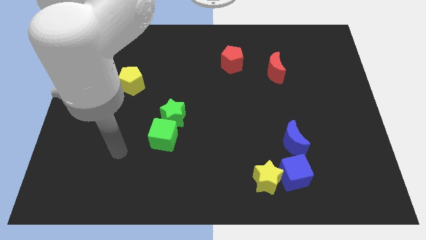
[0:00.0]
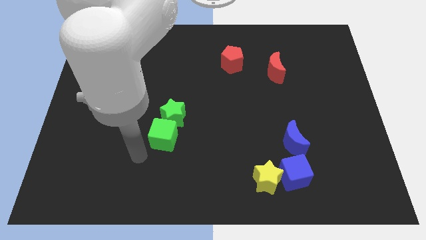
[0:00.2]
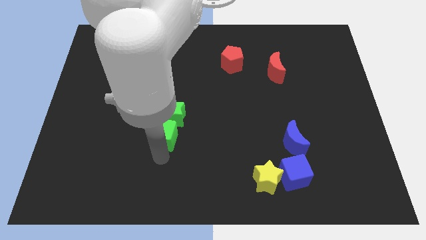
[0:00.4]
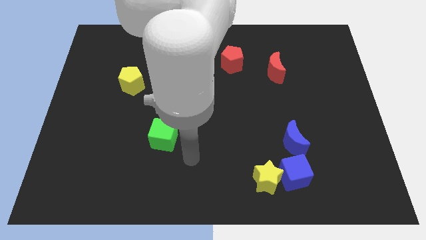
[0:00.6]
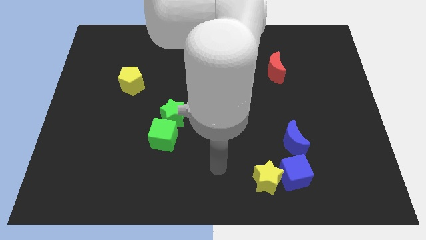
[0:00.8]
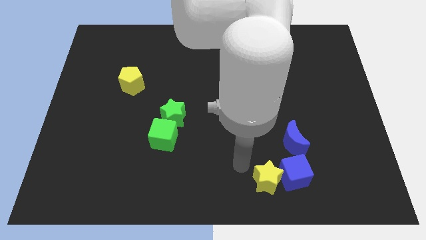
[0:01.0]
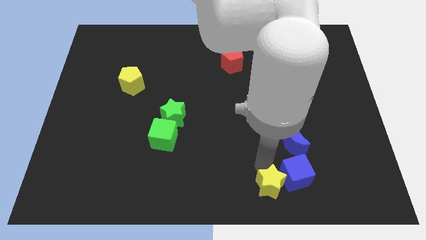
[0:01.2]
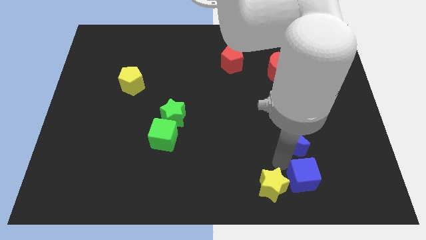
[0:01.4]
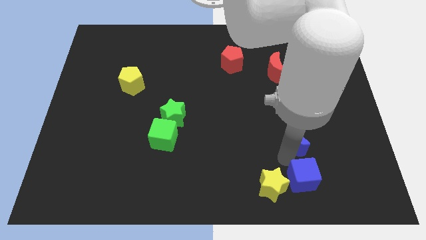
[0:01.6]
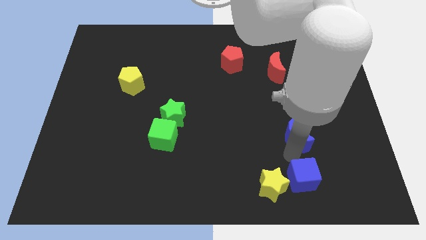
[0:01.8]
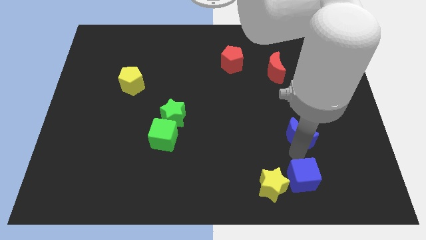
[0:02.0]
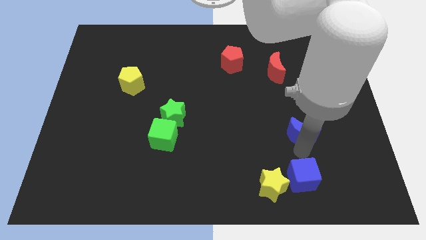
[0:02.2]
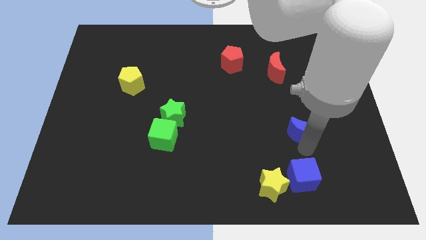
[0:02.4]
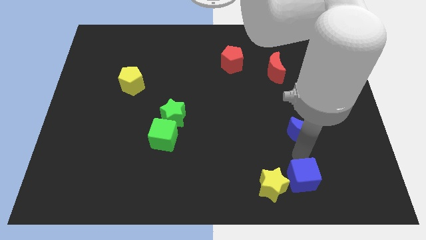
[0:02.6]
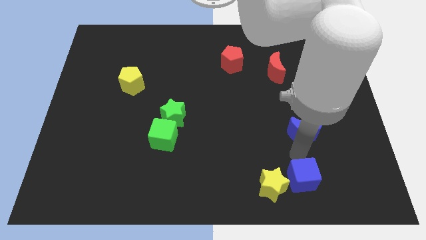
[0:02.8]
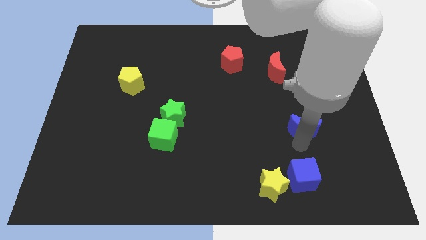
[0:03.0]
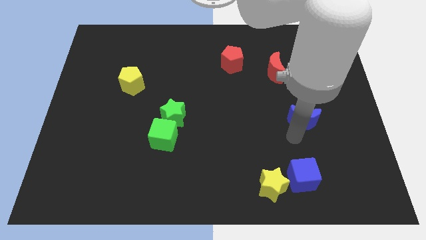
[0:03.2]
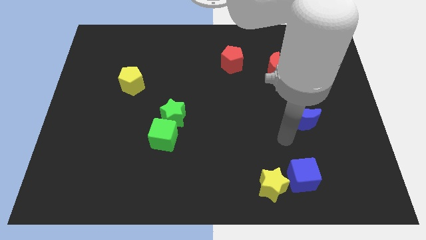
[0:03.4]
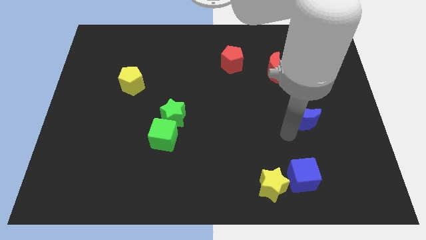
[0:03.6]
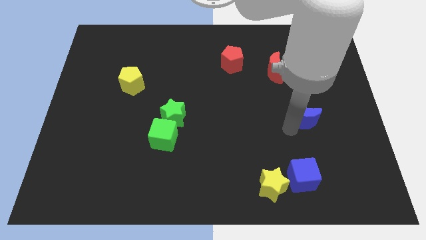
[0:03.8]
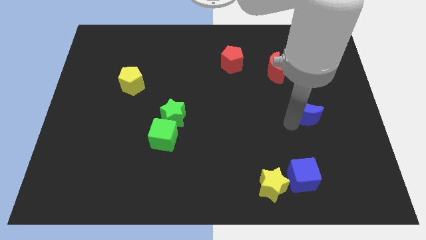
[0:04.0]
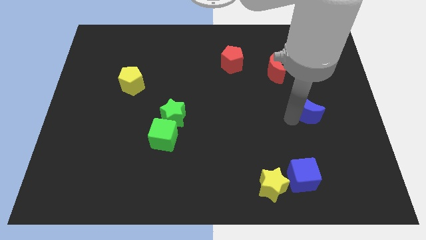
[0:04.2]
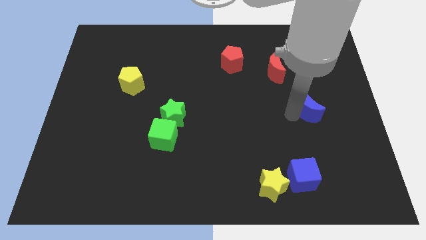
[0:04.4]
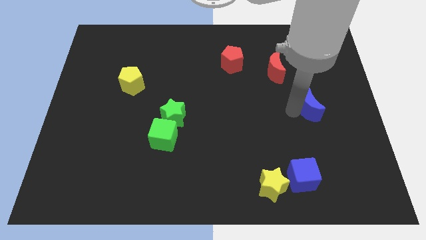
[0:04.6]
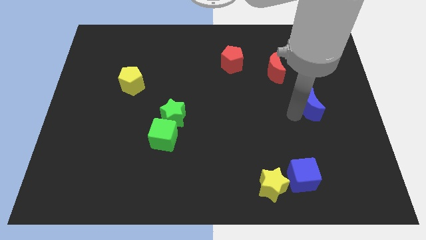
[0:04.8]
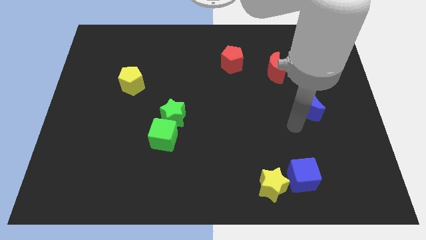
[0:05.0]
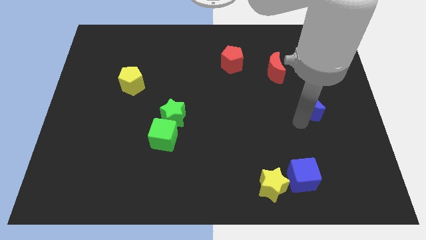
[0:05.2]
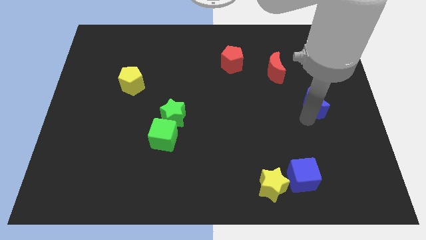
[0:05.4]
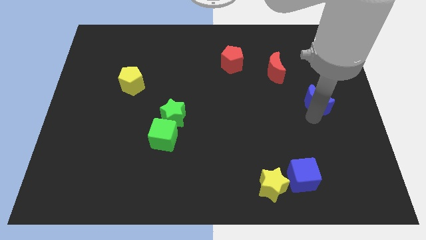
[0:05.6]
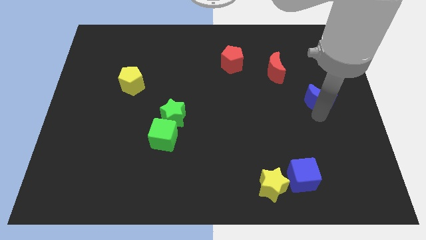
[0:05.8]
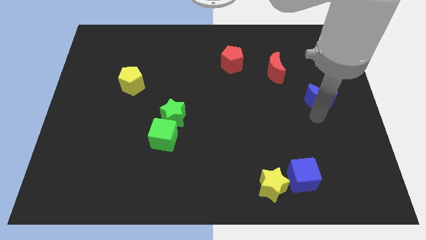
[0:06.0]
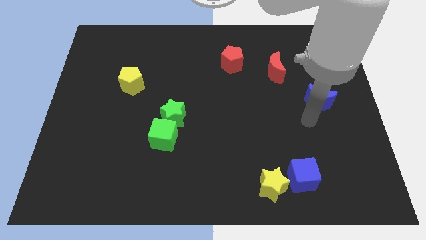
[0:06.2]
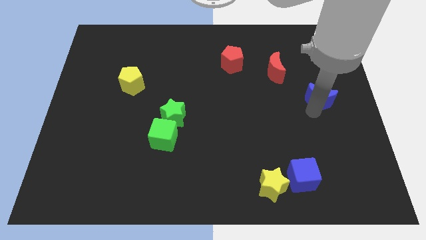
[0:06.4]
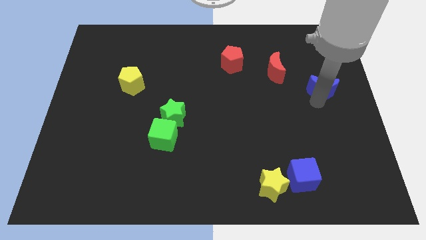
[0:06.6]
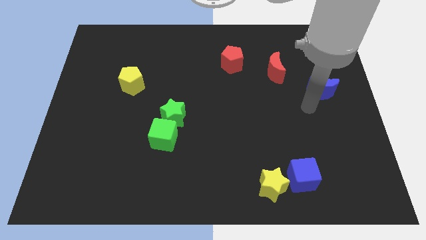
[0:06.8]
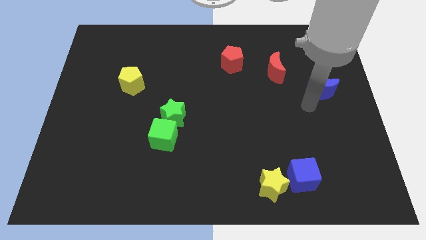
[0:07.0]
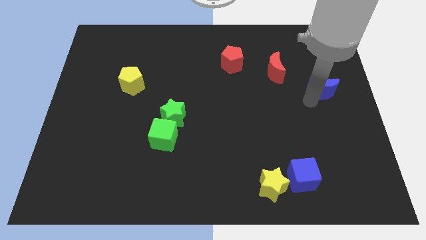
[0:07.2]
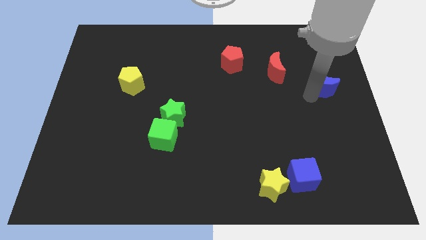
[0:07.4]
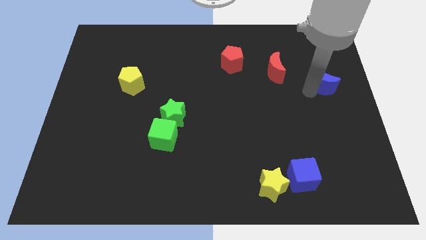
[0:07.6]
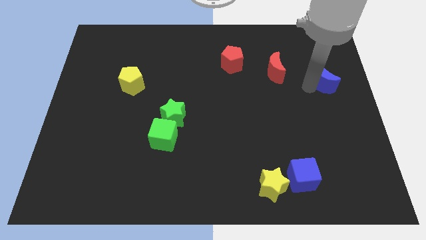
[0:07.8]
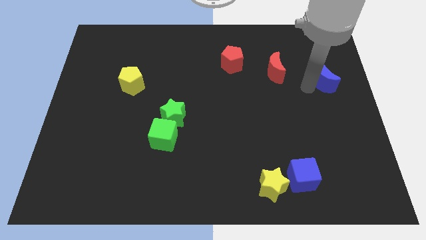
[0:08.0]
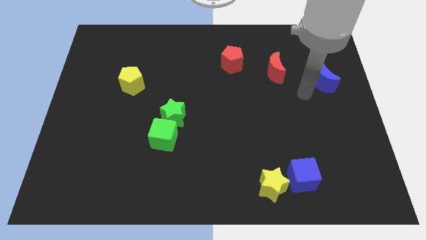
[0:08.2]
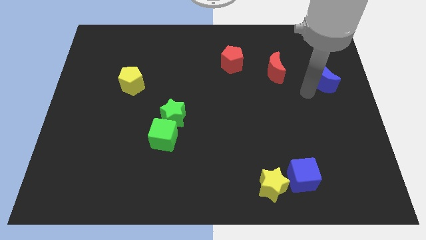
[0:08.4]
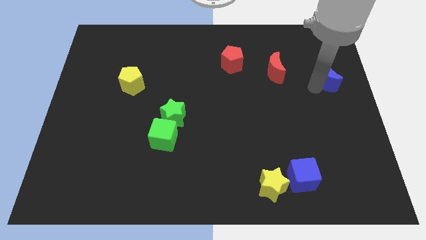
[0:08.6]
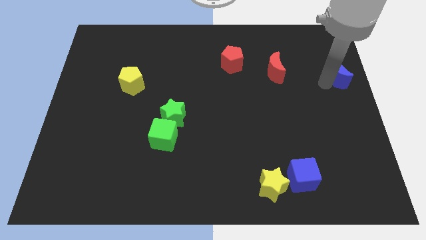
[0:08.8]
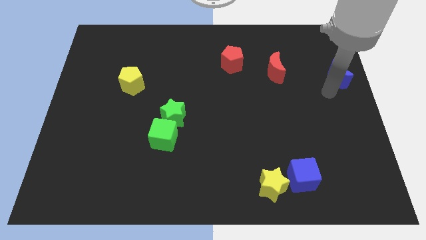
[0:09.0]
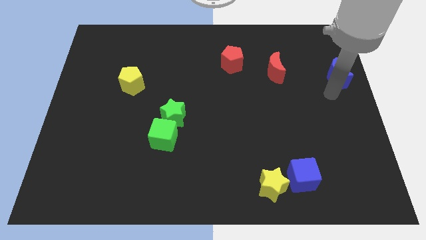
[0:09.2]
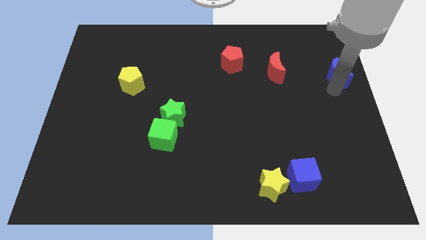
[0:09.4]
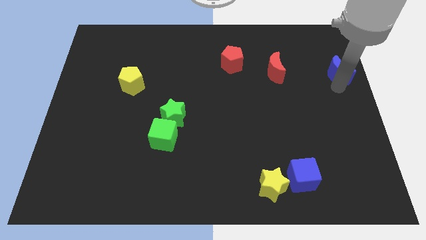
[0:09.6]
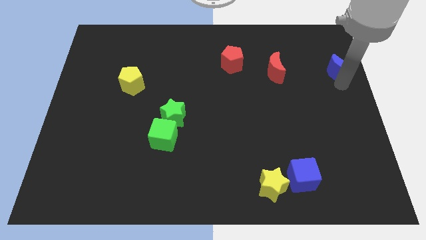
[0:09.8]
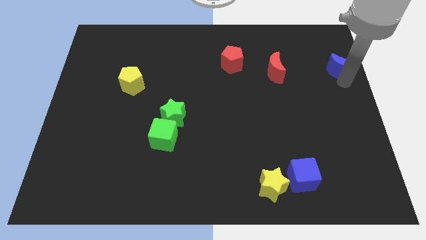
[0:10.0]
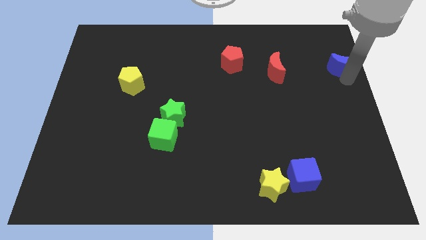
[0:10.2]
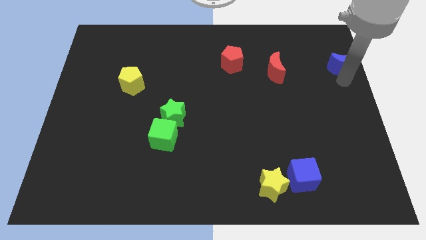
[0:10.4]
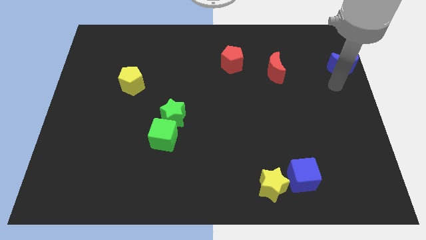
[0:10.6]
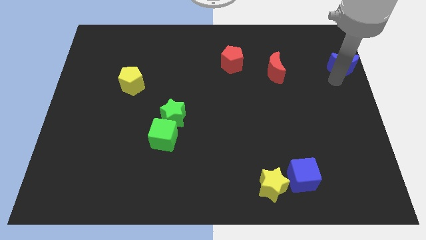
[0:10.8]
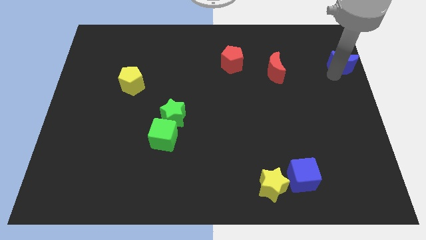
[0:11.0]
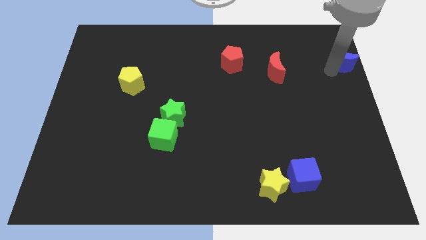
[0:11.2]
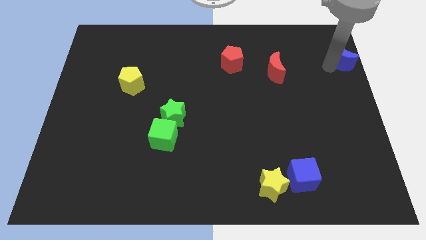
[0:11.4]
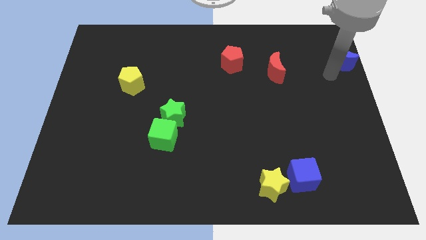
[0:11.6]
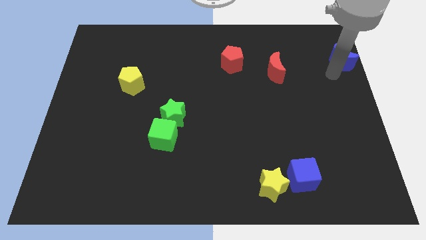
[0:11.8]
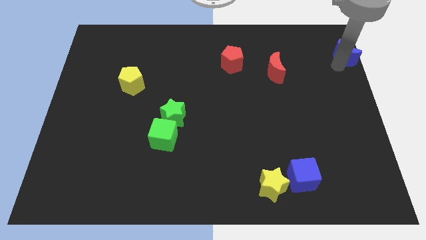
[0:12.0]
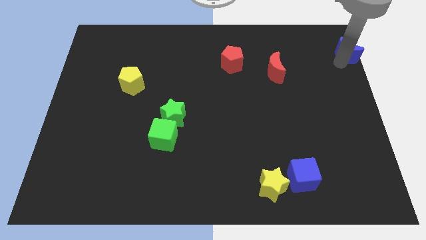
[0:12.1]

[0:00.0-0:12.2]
move the blue moon to the top right of the board
